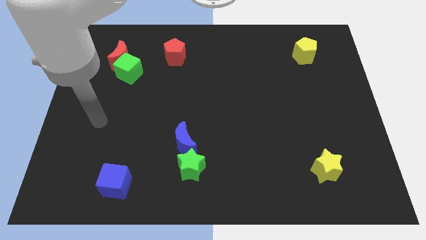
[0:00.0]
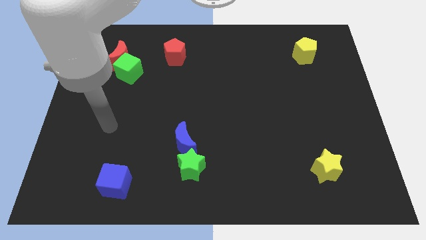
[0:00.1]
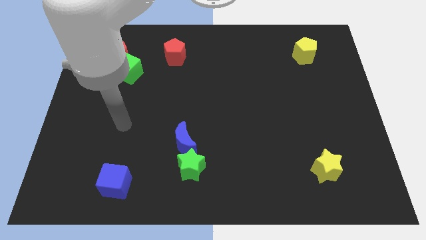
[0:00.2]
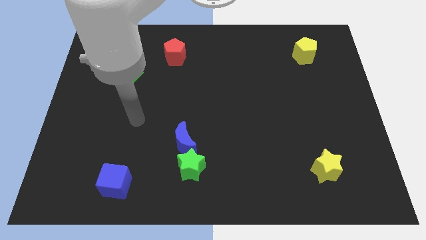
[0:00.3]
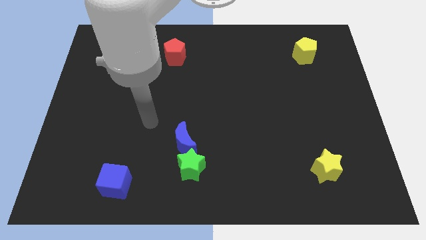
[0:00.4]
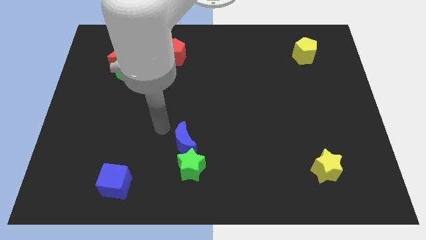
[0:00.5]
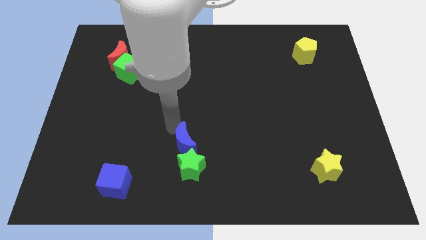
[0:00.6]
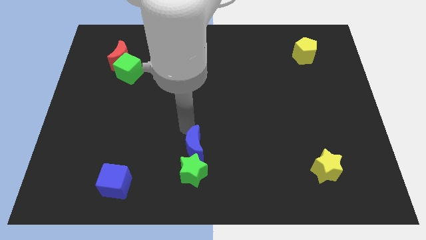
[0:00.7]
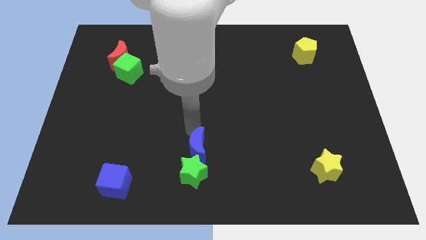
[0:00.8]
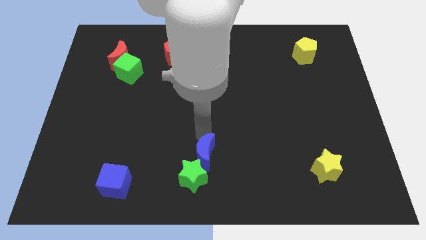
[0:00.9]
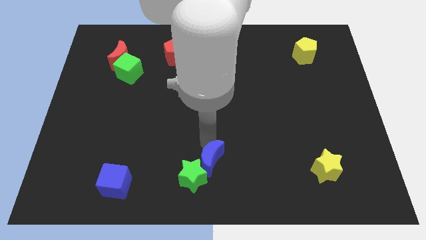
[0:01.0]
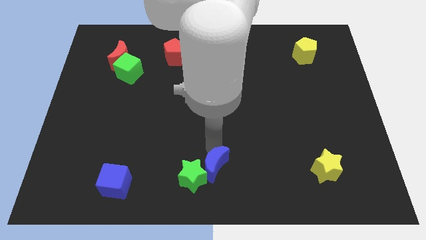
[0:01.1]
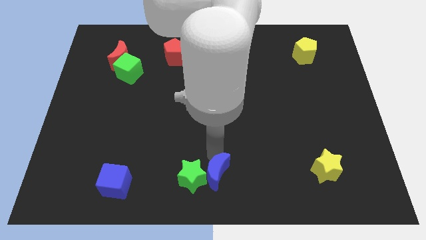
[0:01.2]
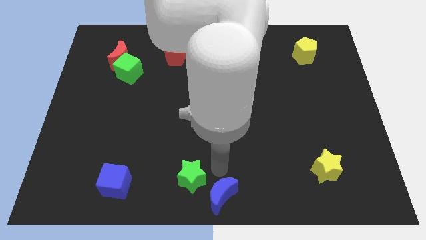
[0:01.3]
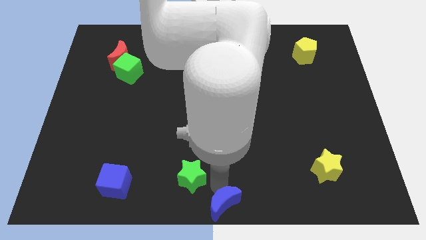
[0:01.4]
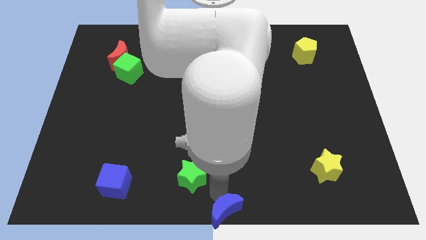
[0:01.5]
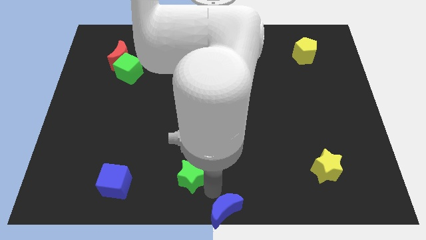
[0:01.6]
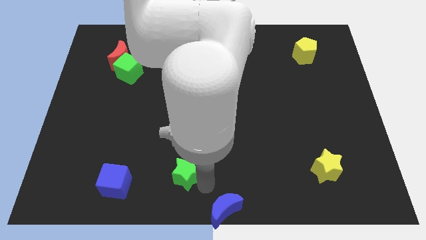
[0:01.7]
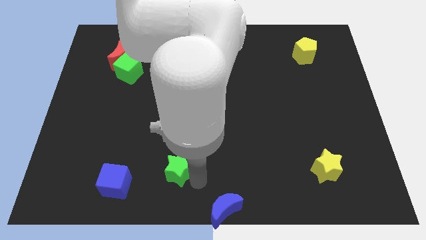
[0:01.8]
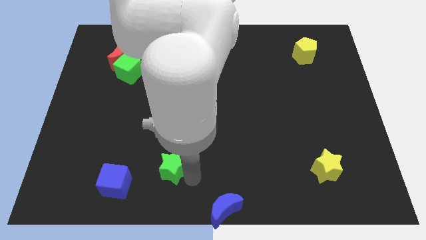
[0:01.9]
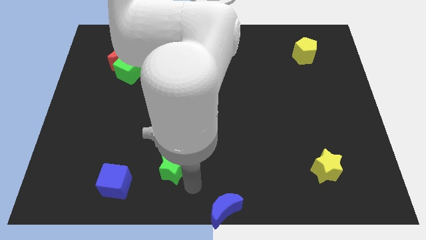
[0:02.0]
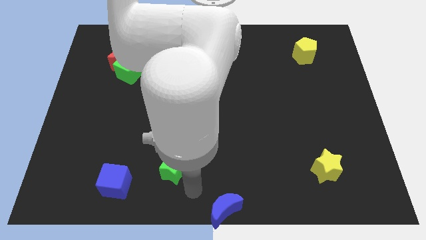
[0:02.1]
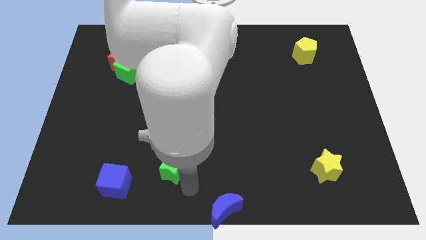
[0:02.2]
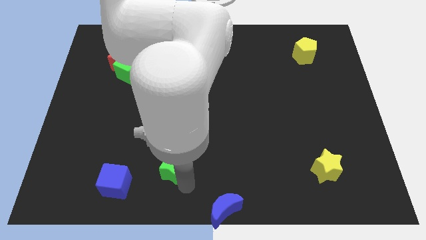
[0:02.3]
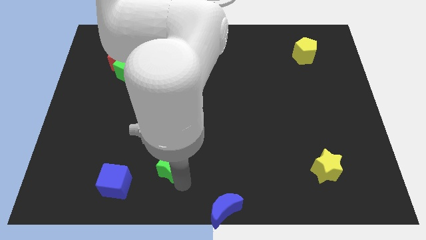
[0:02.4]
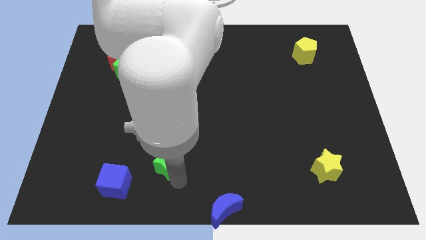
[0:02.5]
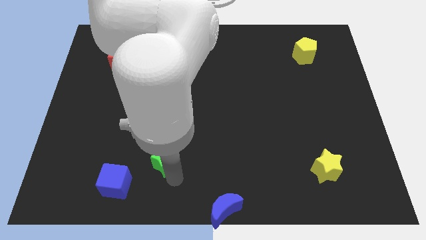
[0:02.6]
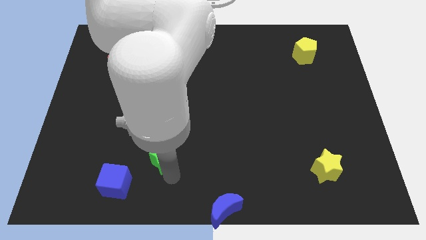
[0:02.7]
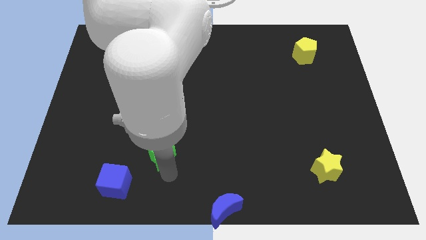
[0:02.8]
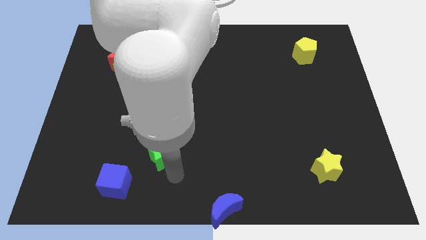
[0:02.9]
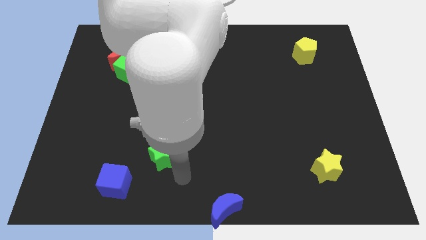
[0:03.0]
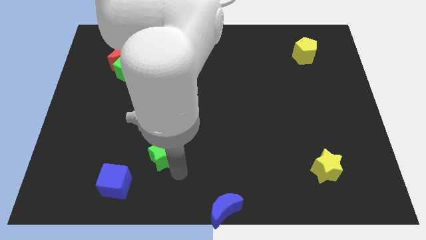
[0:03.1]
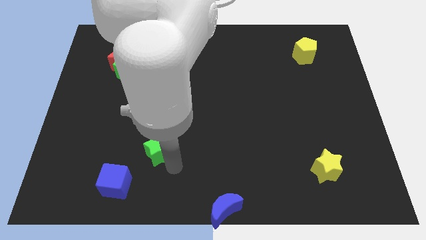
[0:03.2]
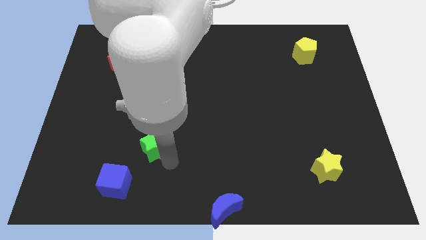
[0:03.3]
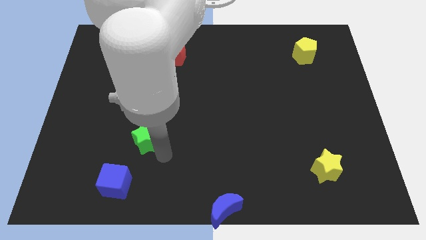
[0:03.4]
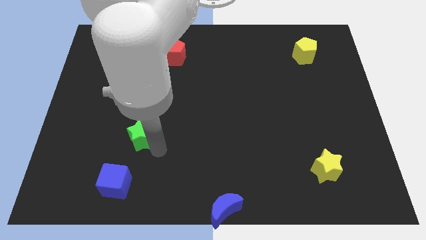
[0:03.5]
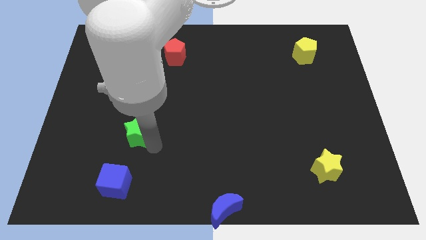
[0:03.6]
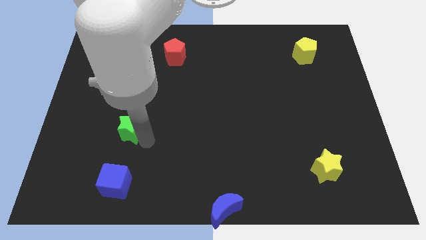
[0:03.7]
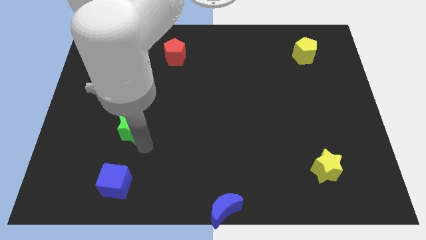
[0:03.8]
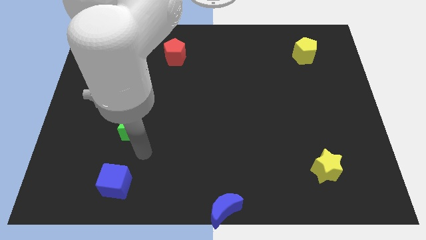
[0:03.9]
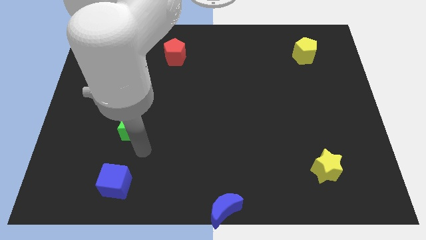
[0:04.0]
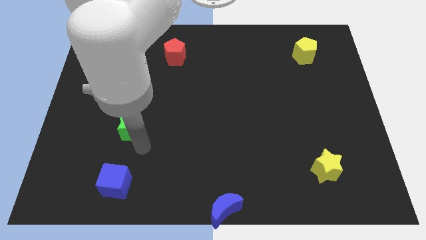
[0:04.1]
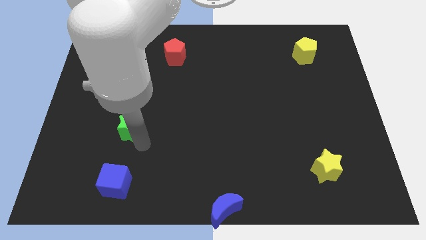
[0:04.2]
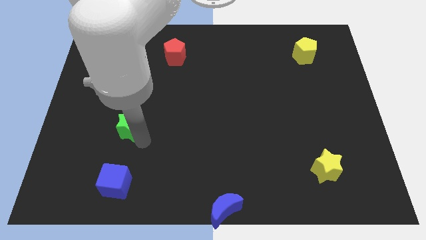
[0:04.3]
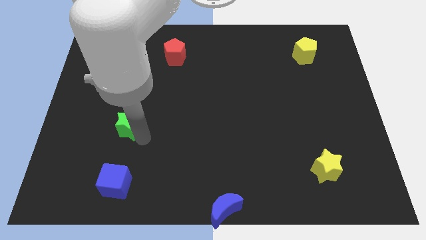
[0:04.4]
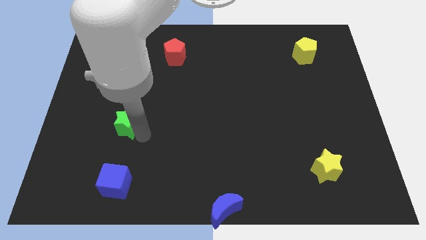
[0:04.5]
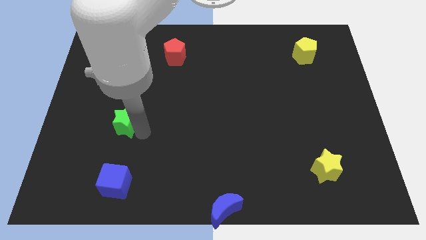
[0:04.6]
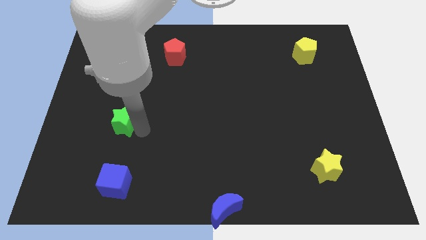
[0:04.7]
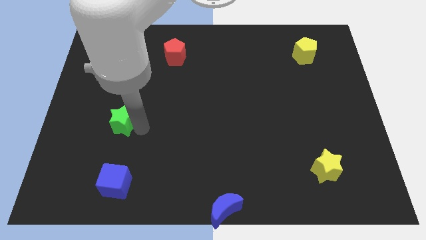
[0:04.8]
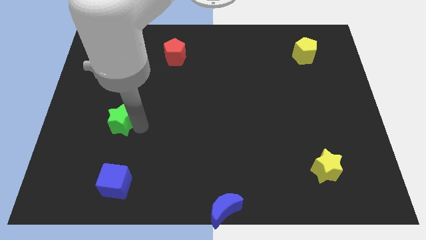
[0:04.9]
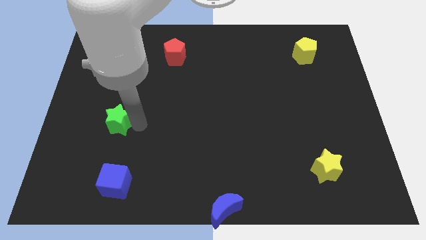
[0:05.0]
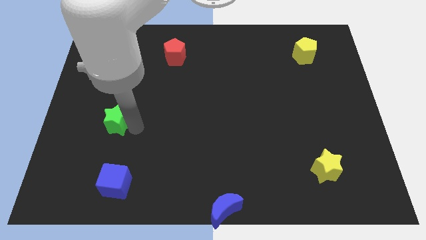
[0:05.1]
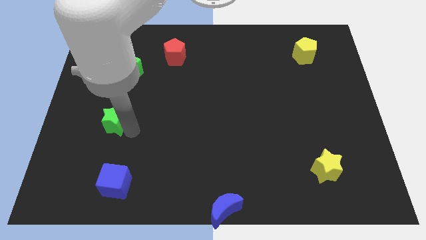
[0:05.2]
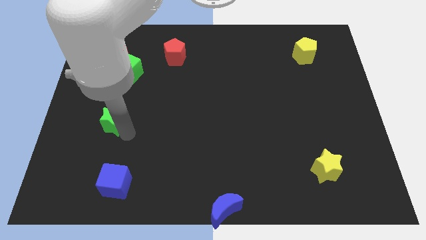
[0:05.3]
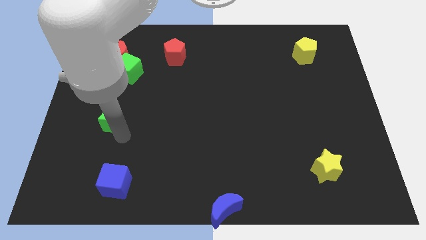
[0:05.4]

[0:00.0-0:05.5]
push the green star upwards and left diagonally

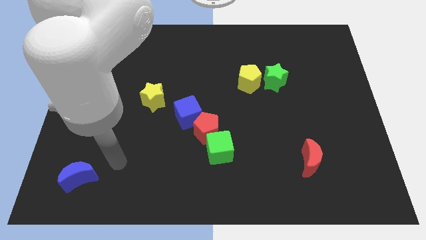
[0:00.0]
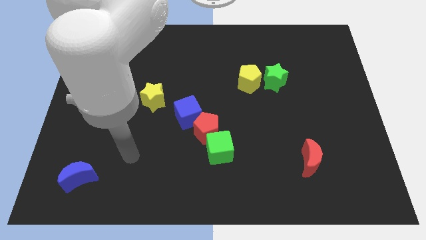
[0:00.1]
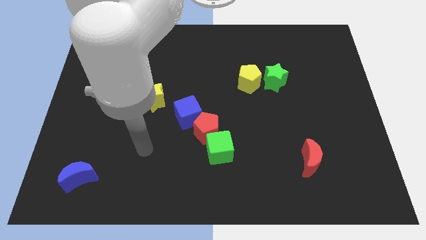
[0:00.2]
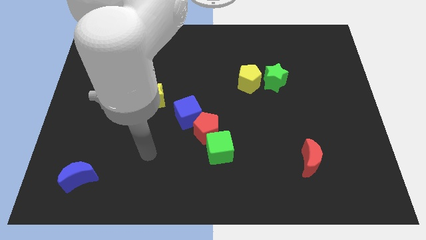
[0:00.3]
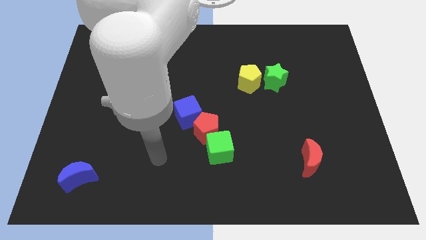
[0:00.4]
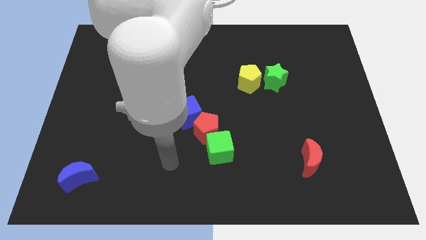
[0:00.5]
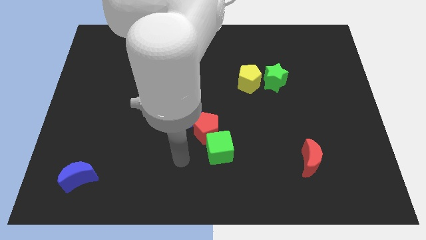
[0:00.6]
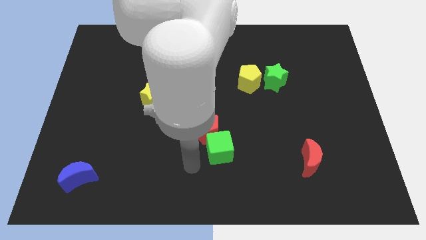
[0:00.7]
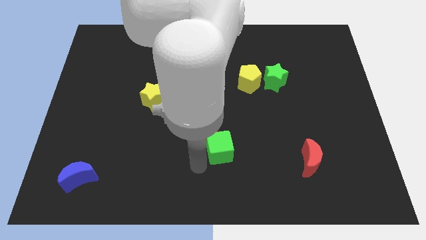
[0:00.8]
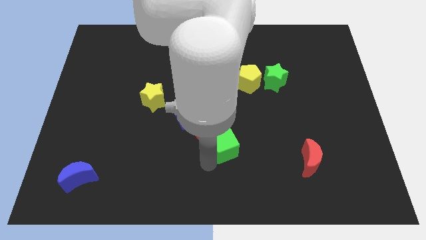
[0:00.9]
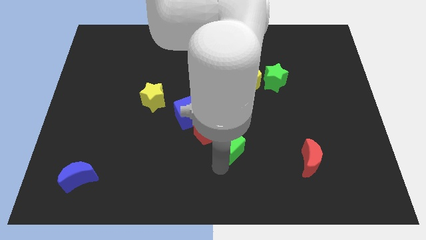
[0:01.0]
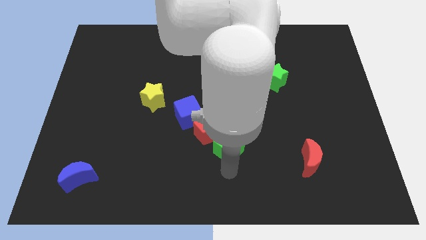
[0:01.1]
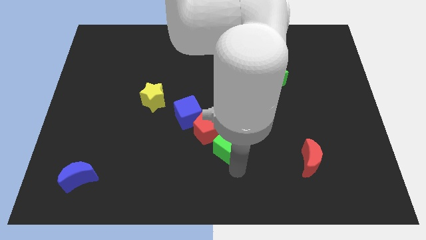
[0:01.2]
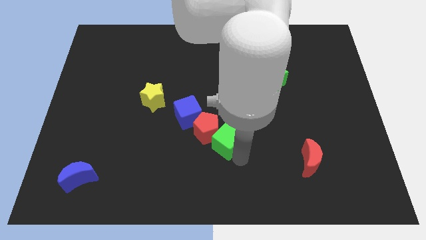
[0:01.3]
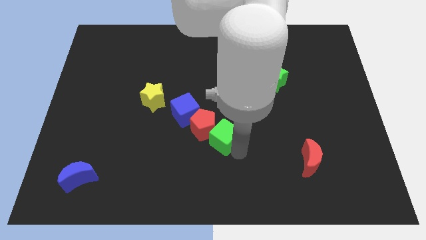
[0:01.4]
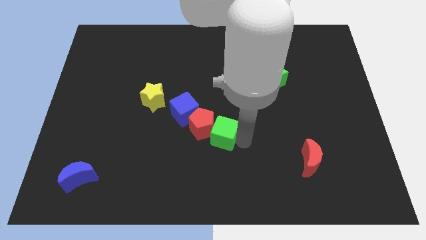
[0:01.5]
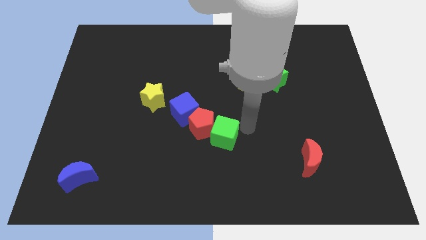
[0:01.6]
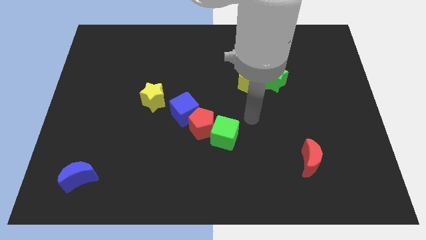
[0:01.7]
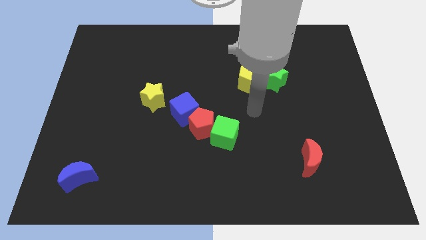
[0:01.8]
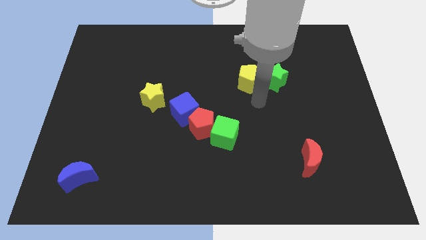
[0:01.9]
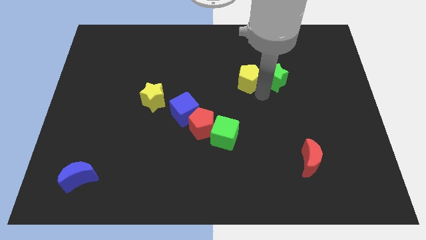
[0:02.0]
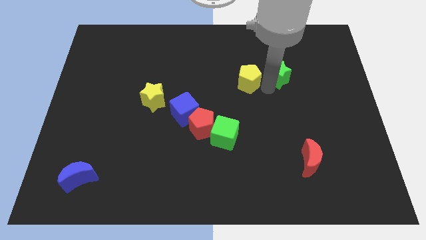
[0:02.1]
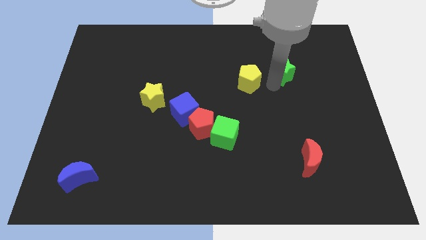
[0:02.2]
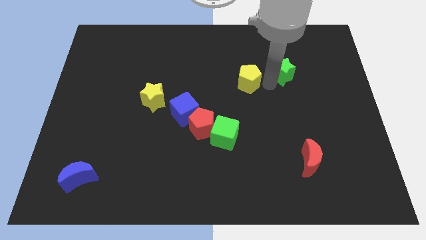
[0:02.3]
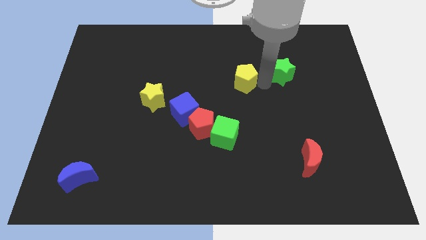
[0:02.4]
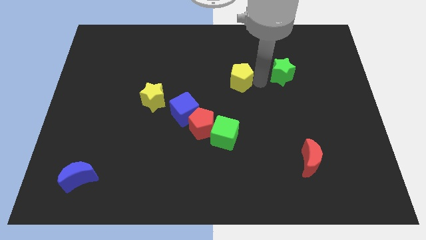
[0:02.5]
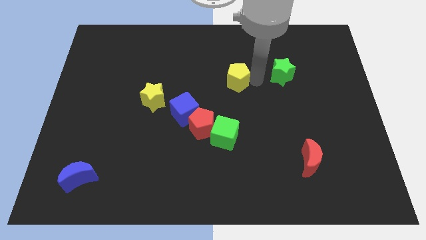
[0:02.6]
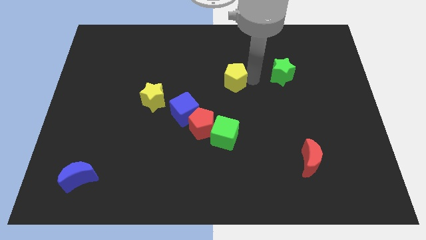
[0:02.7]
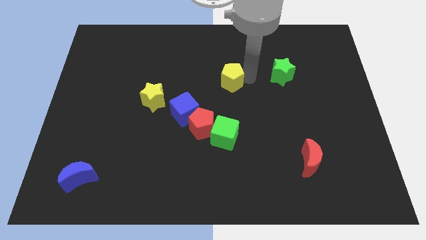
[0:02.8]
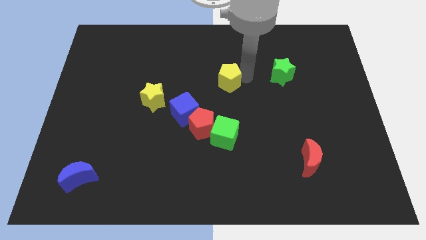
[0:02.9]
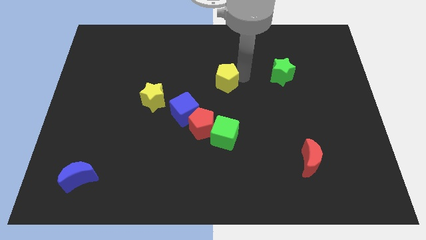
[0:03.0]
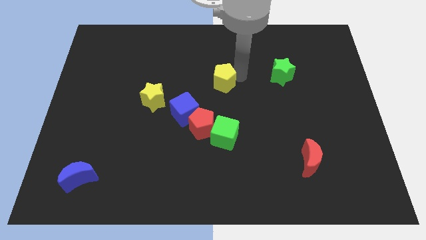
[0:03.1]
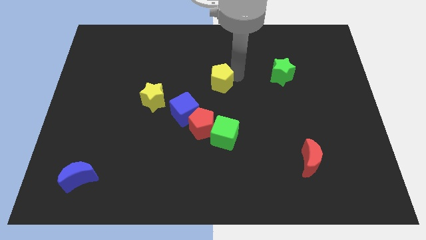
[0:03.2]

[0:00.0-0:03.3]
push the yellow pentagon to the left slightly
